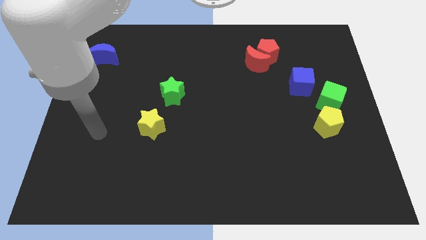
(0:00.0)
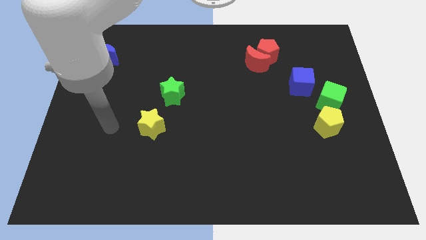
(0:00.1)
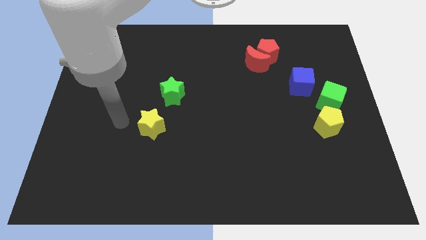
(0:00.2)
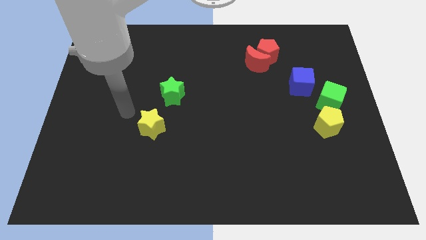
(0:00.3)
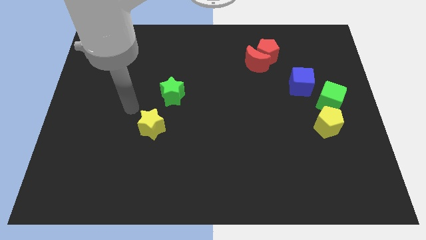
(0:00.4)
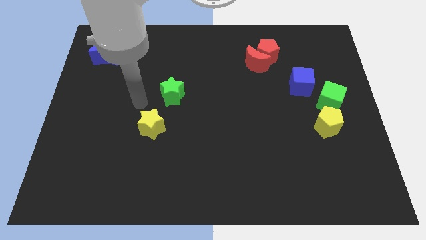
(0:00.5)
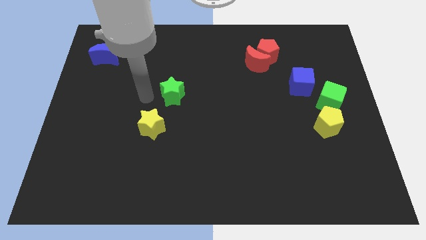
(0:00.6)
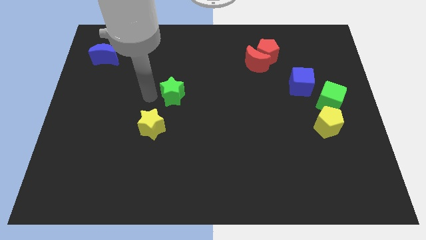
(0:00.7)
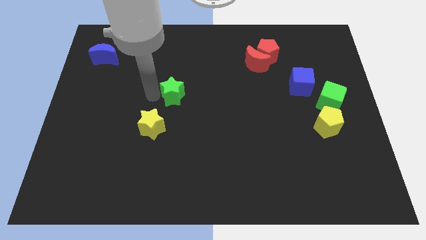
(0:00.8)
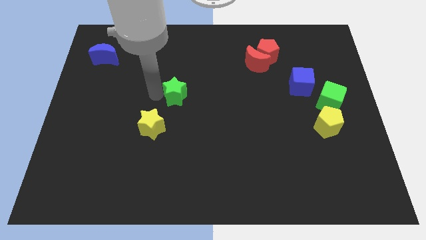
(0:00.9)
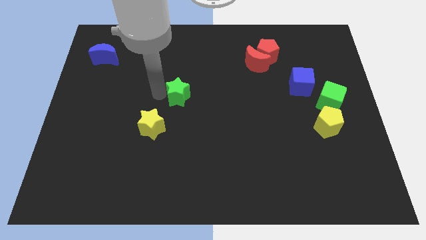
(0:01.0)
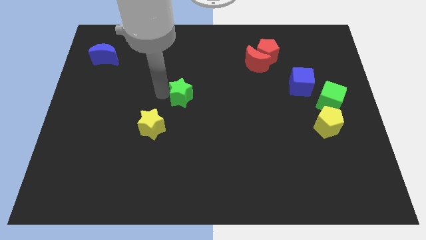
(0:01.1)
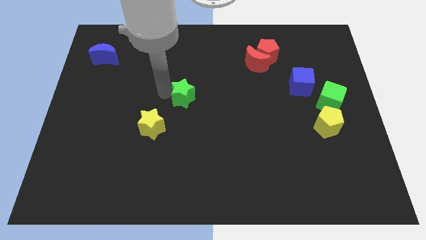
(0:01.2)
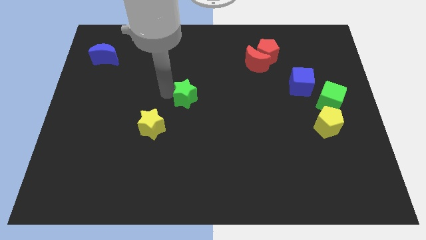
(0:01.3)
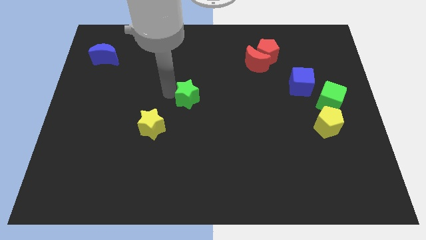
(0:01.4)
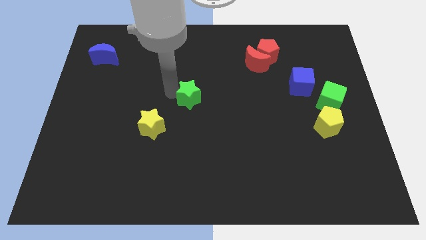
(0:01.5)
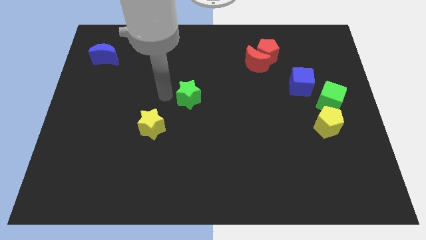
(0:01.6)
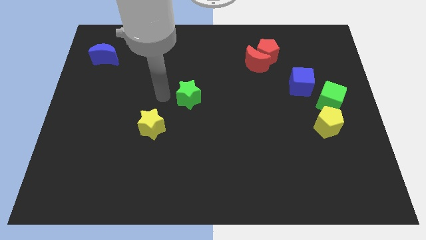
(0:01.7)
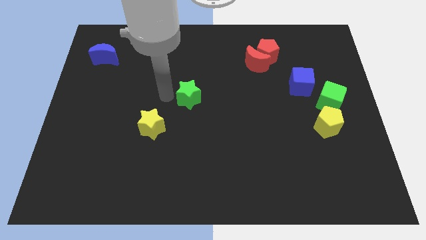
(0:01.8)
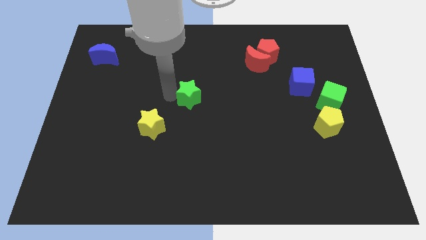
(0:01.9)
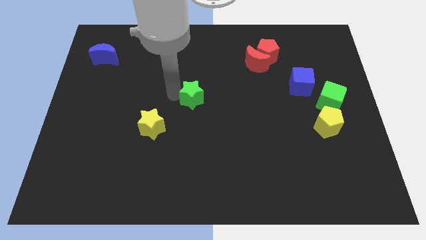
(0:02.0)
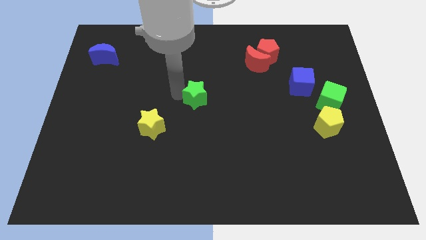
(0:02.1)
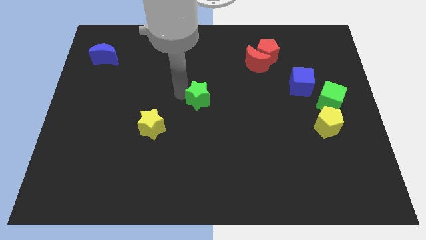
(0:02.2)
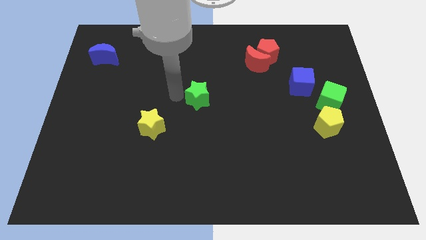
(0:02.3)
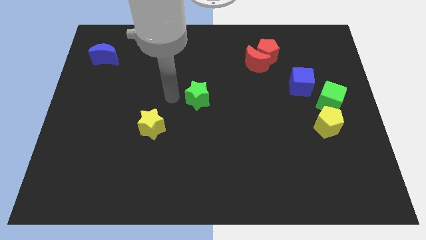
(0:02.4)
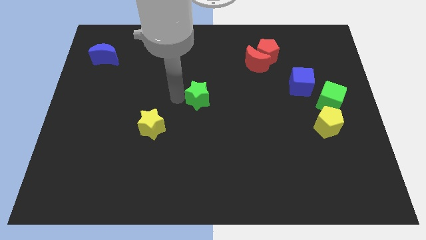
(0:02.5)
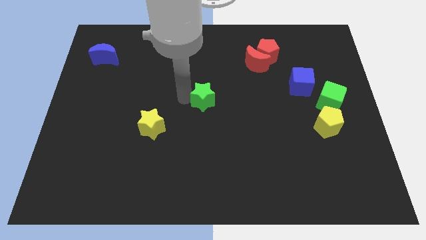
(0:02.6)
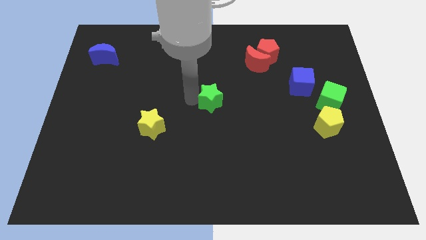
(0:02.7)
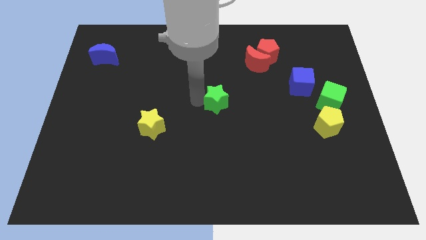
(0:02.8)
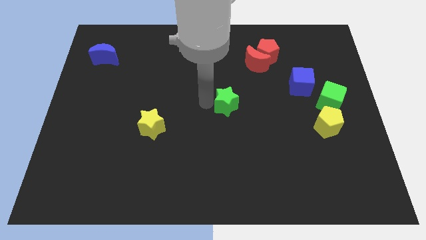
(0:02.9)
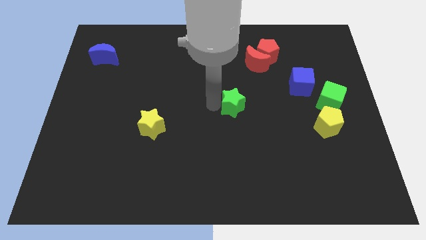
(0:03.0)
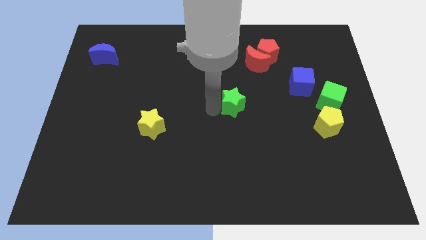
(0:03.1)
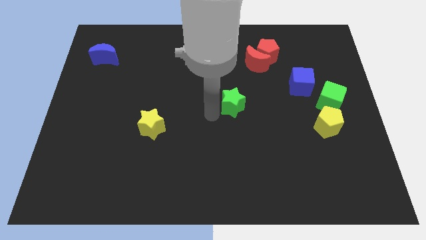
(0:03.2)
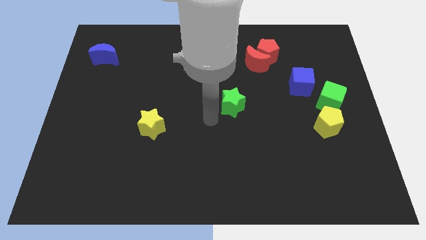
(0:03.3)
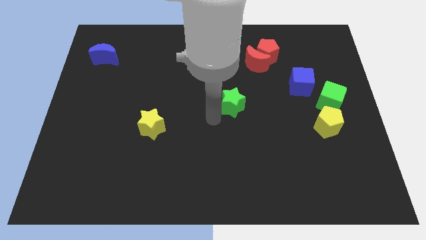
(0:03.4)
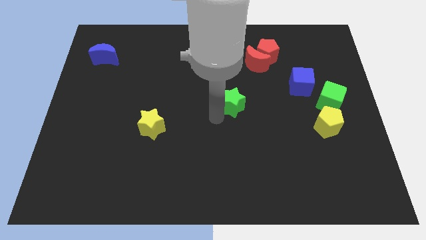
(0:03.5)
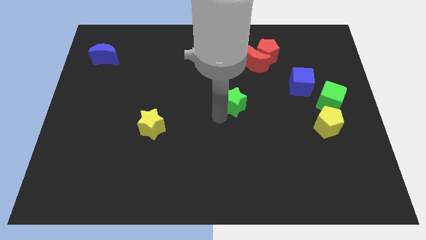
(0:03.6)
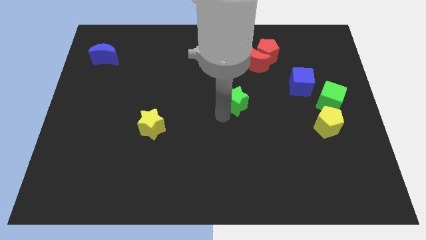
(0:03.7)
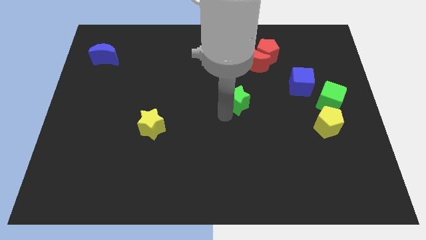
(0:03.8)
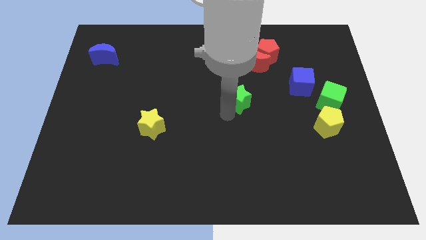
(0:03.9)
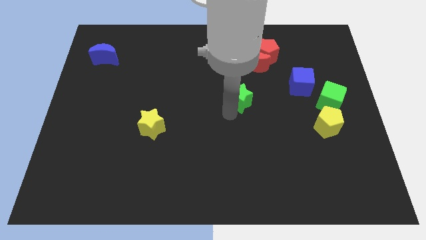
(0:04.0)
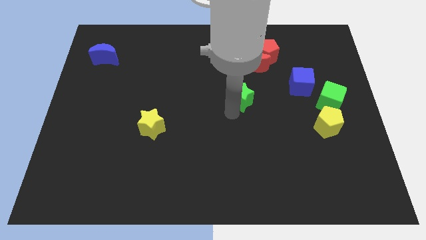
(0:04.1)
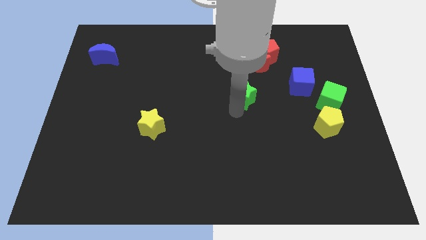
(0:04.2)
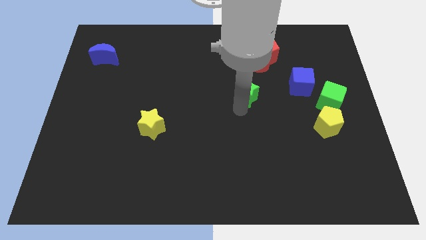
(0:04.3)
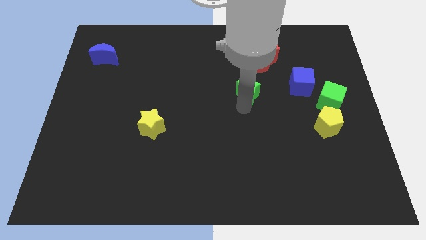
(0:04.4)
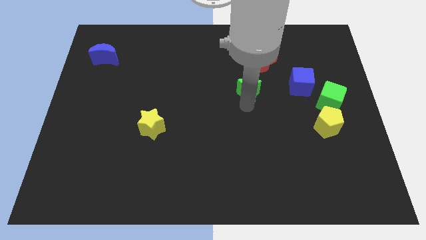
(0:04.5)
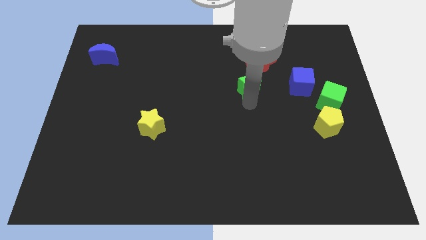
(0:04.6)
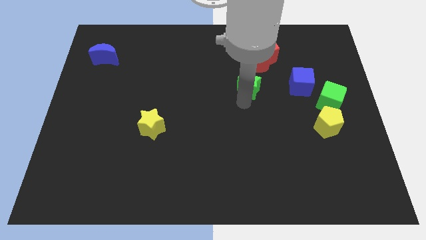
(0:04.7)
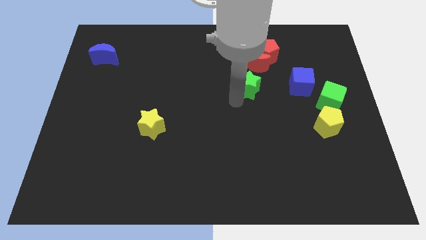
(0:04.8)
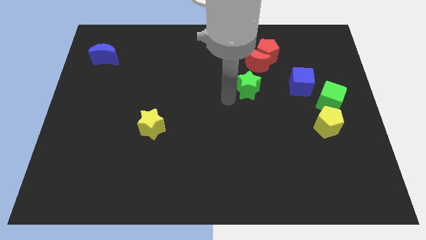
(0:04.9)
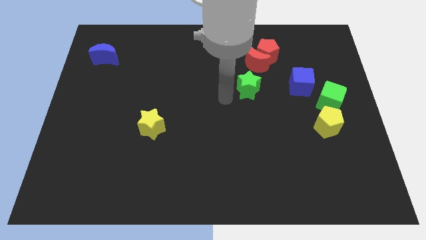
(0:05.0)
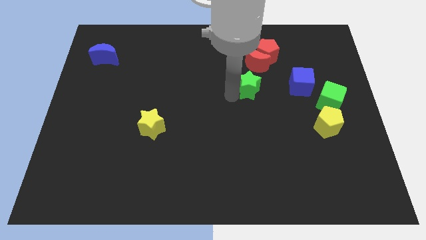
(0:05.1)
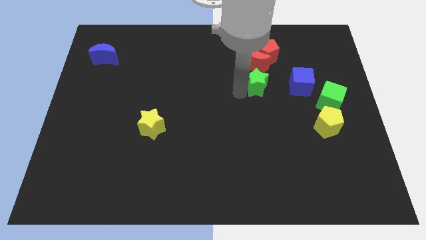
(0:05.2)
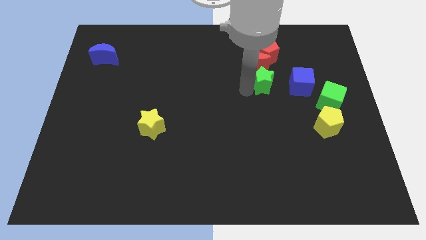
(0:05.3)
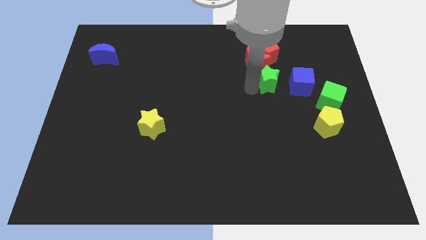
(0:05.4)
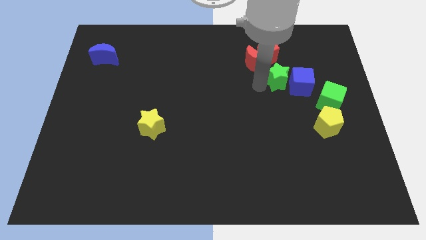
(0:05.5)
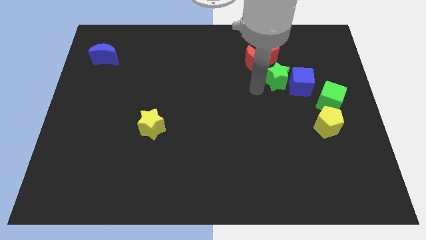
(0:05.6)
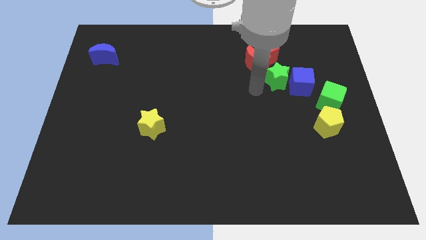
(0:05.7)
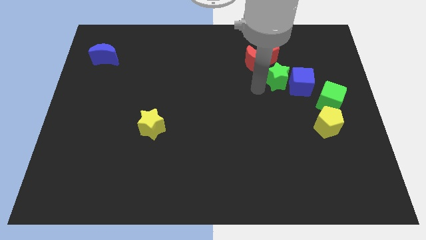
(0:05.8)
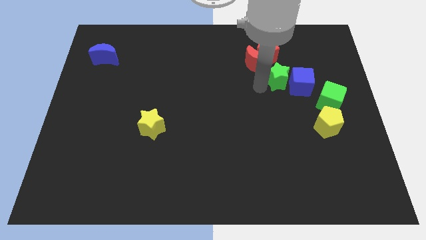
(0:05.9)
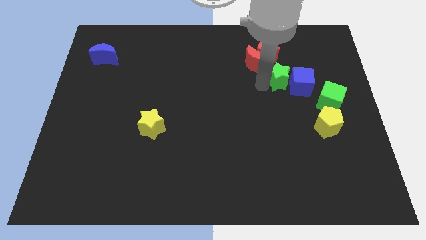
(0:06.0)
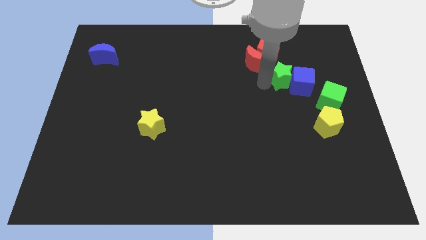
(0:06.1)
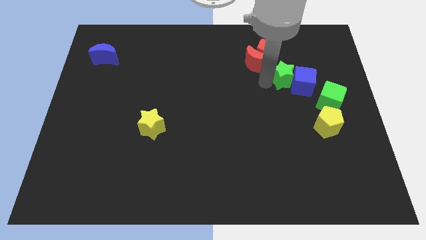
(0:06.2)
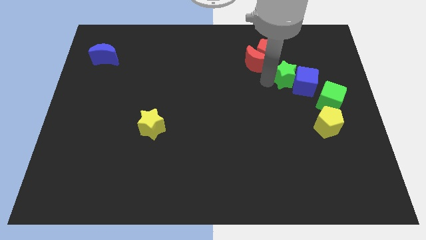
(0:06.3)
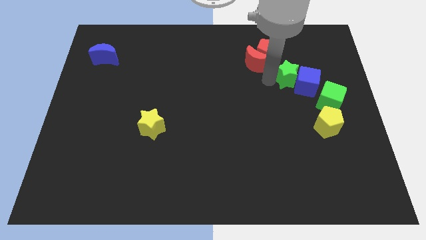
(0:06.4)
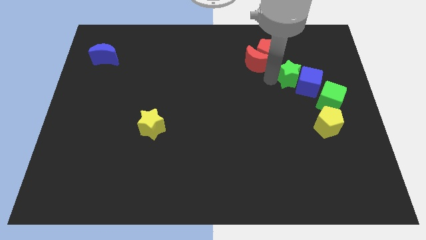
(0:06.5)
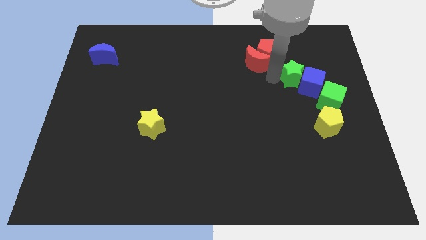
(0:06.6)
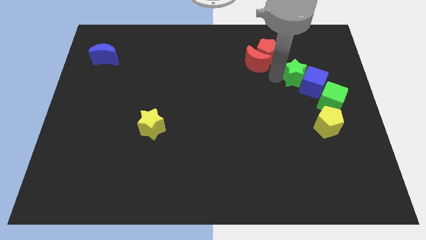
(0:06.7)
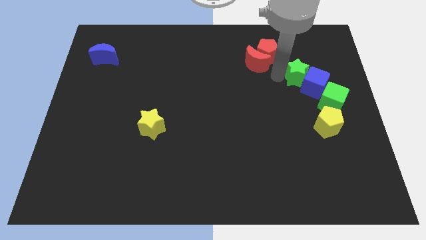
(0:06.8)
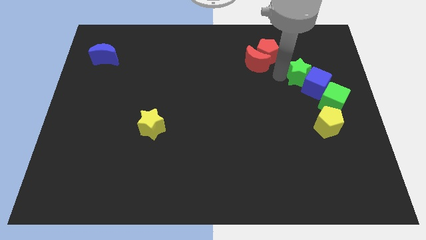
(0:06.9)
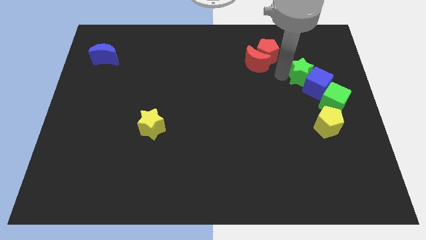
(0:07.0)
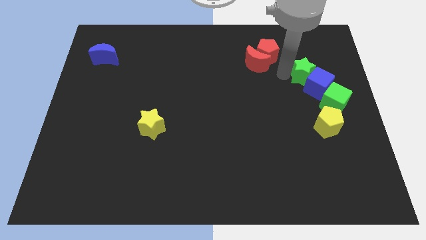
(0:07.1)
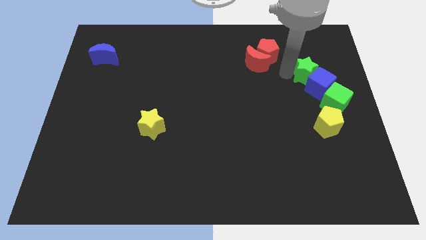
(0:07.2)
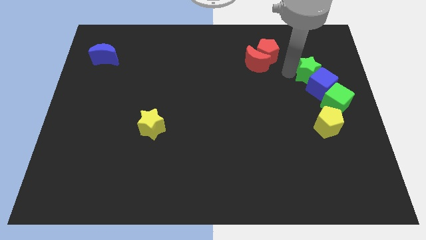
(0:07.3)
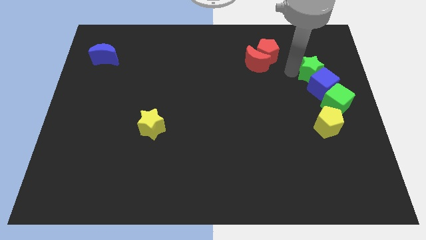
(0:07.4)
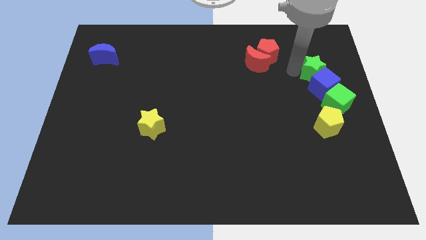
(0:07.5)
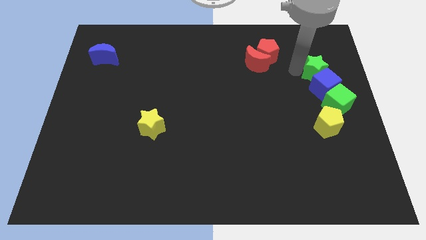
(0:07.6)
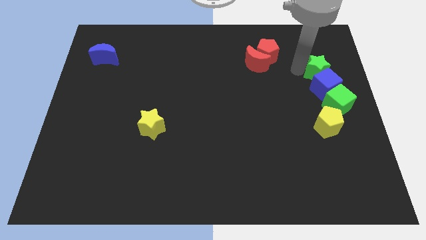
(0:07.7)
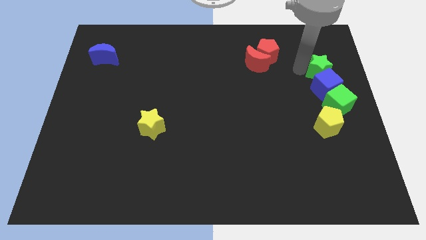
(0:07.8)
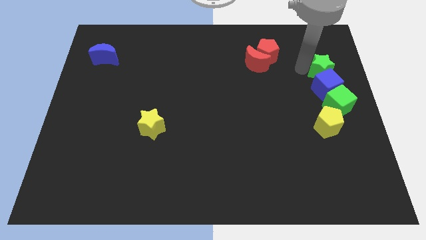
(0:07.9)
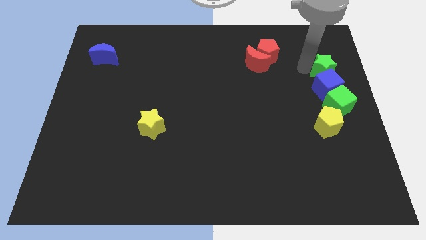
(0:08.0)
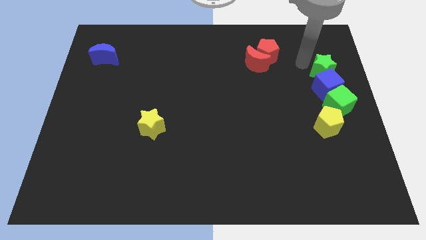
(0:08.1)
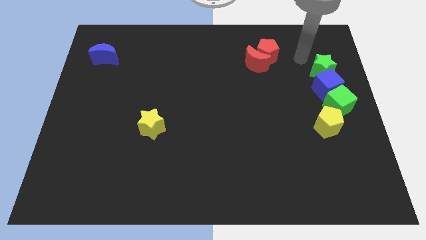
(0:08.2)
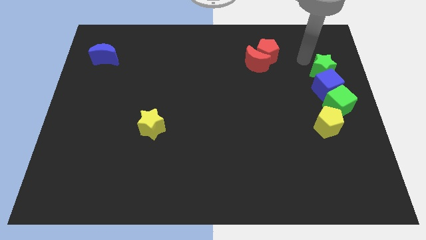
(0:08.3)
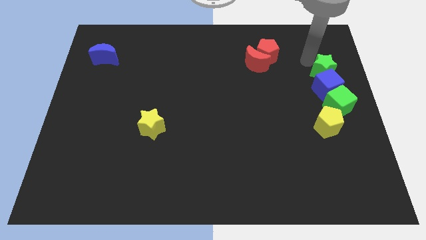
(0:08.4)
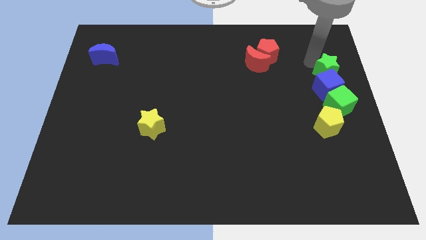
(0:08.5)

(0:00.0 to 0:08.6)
move the green star to the center right
